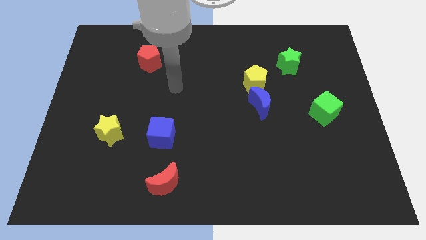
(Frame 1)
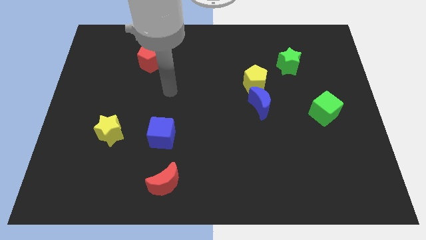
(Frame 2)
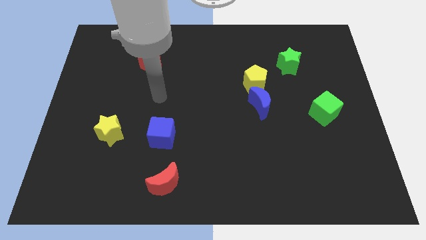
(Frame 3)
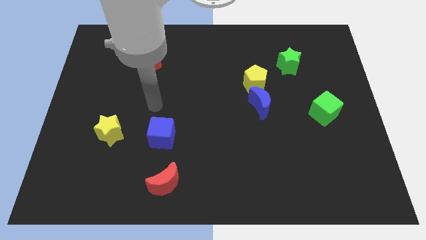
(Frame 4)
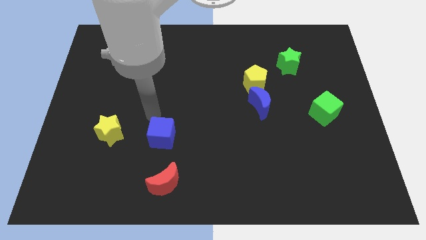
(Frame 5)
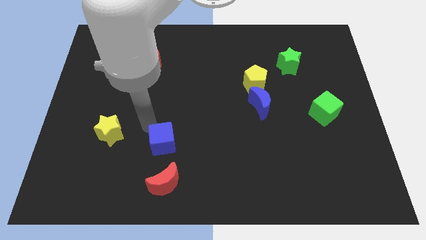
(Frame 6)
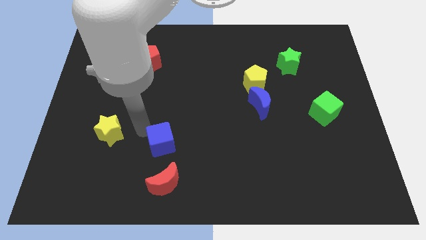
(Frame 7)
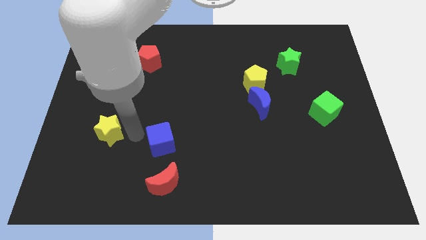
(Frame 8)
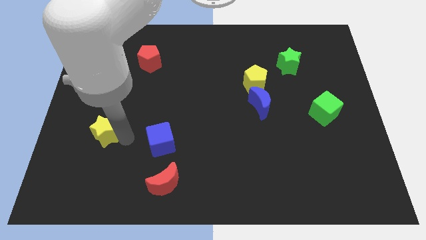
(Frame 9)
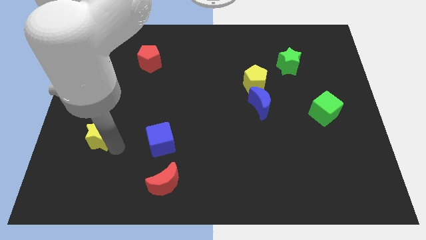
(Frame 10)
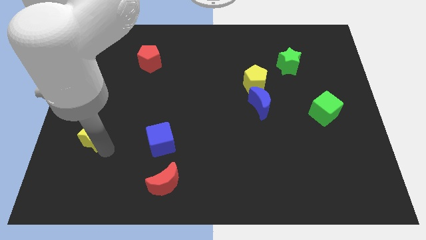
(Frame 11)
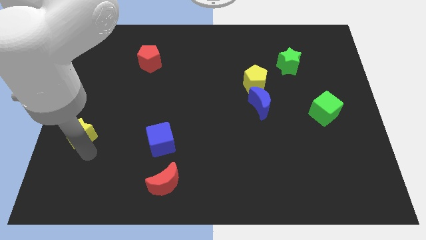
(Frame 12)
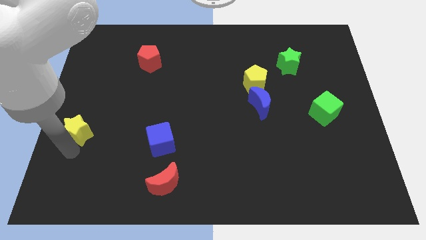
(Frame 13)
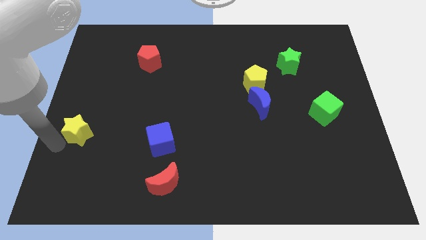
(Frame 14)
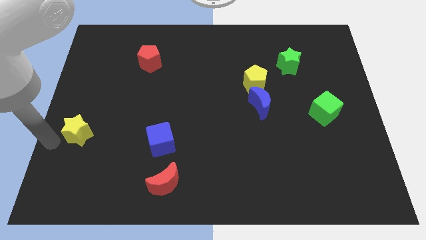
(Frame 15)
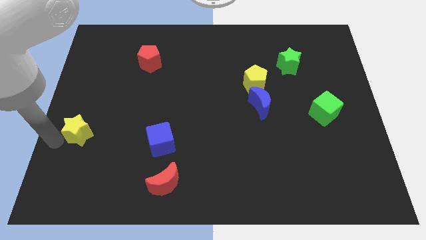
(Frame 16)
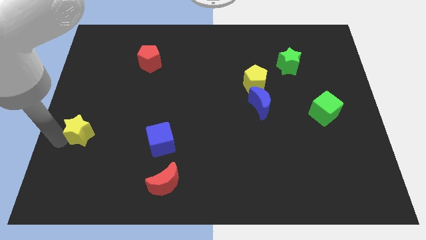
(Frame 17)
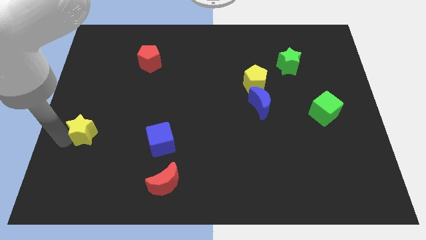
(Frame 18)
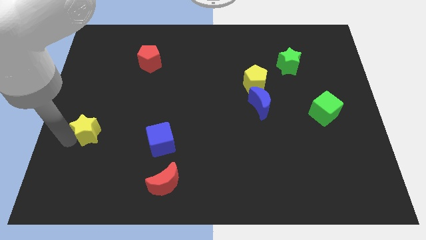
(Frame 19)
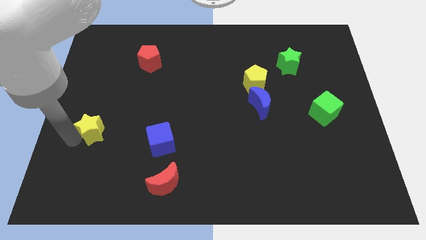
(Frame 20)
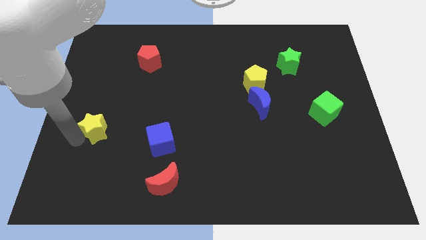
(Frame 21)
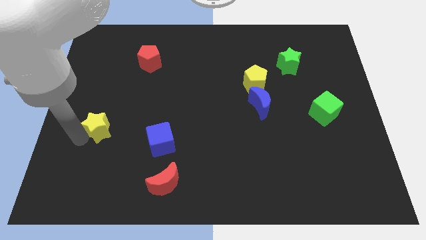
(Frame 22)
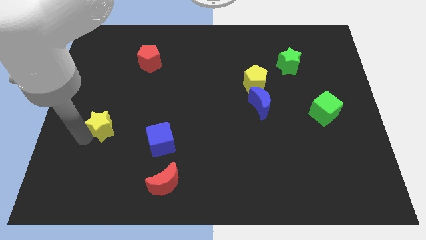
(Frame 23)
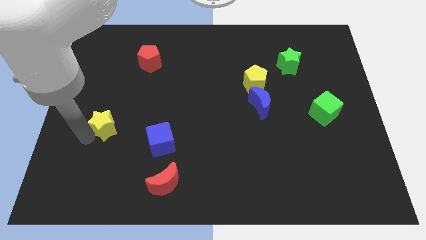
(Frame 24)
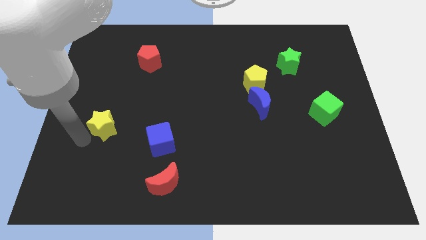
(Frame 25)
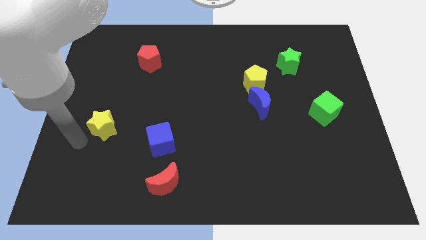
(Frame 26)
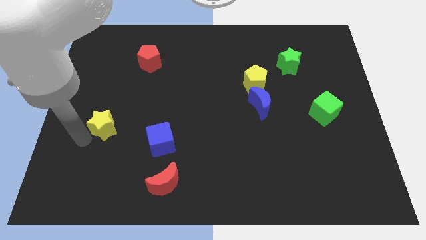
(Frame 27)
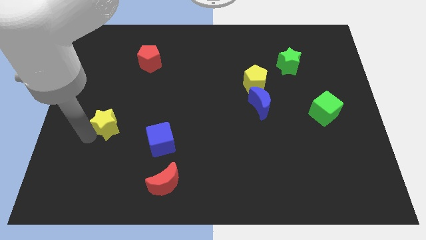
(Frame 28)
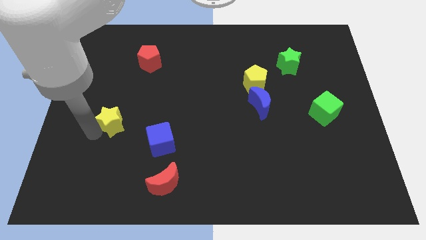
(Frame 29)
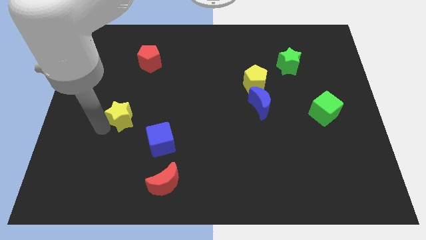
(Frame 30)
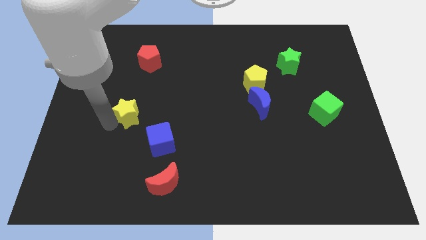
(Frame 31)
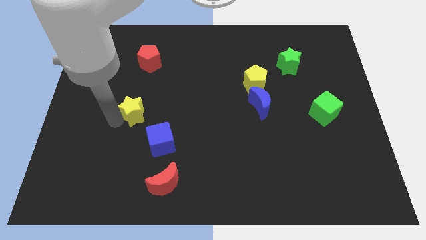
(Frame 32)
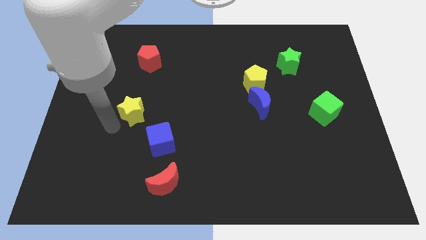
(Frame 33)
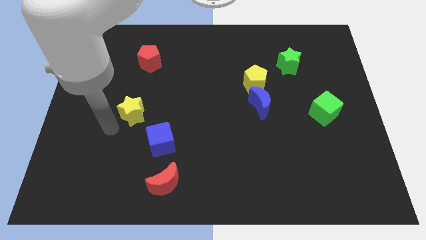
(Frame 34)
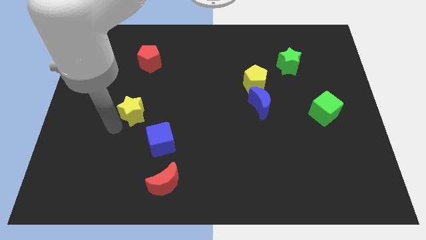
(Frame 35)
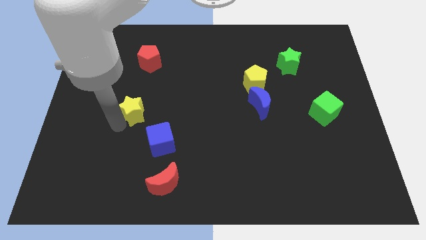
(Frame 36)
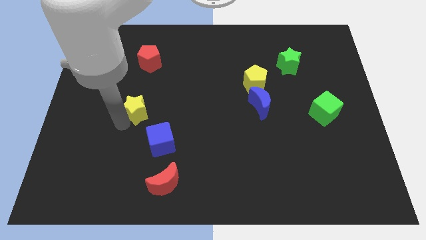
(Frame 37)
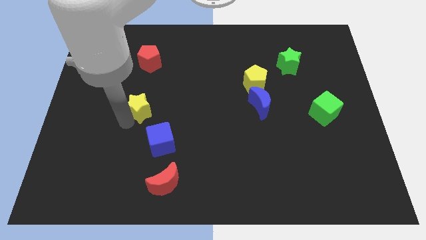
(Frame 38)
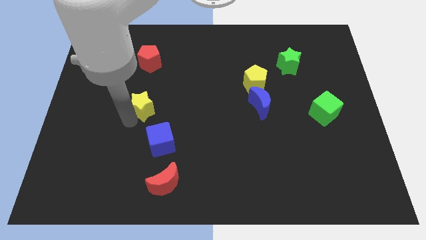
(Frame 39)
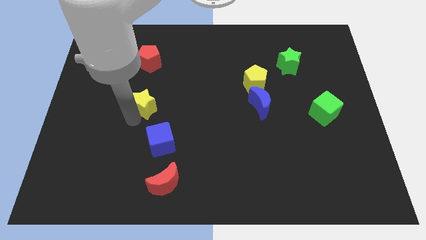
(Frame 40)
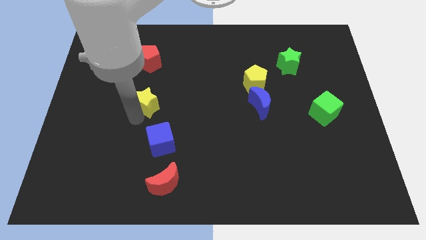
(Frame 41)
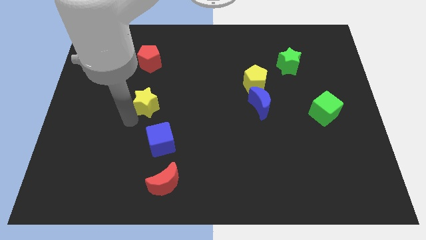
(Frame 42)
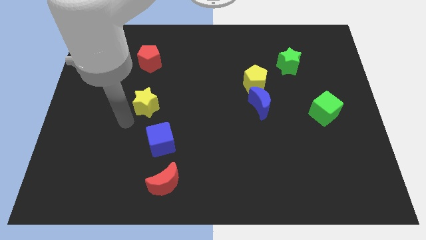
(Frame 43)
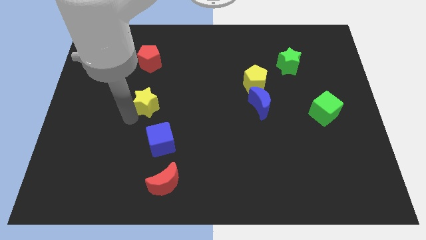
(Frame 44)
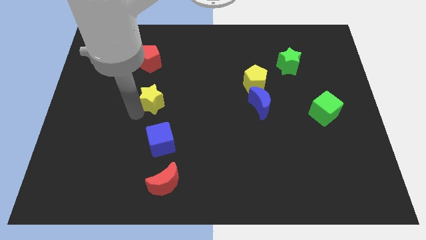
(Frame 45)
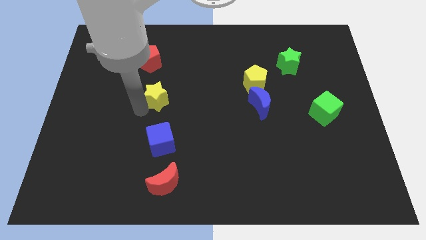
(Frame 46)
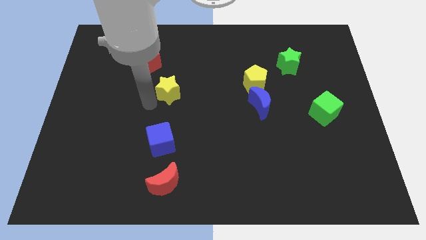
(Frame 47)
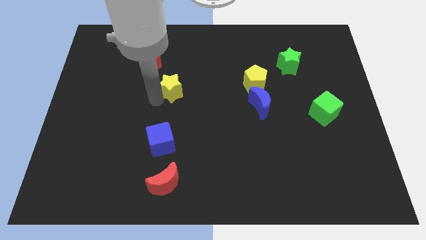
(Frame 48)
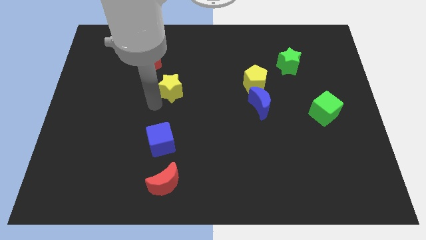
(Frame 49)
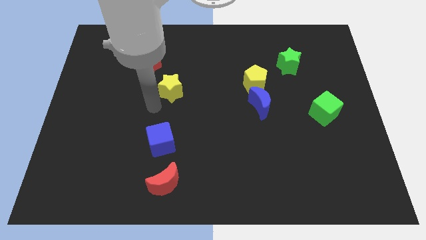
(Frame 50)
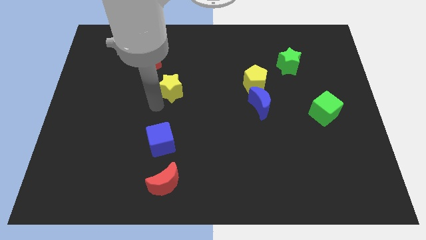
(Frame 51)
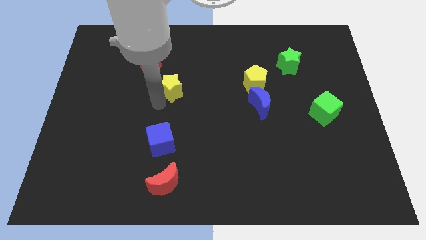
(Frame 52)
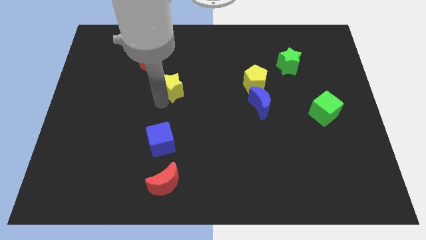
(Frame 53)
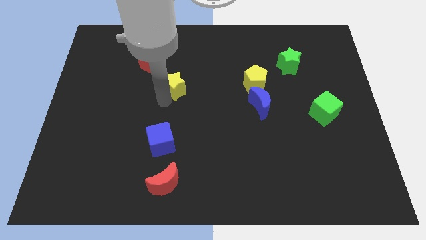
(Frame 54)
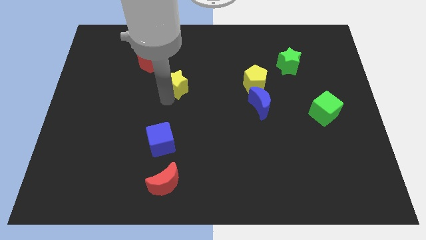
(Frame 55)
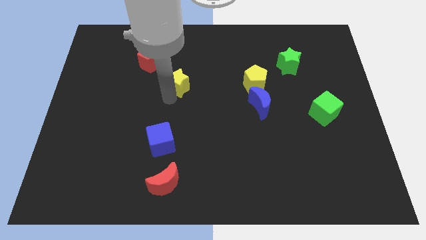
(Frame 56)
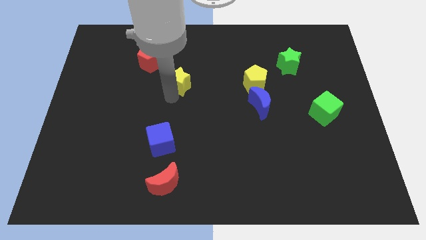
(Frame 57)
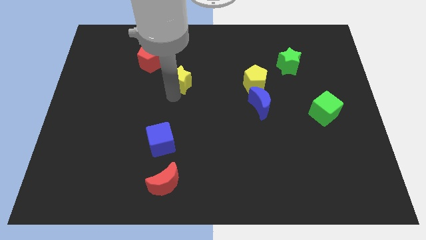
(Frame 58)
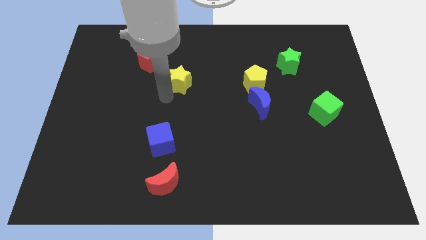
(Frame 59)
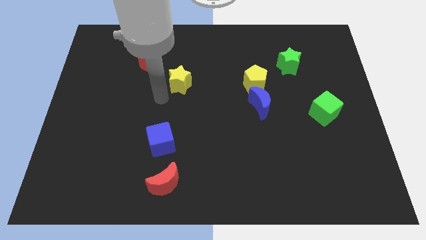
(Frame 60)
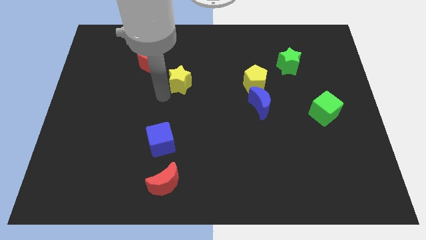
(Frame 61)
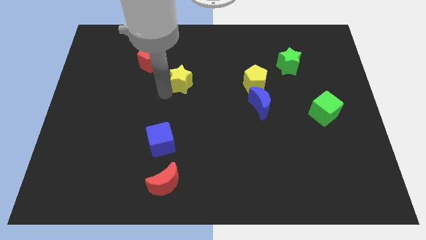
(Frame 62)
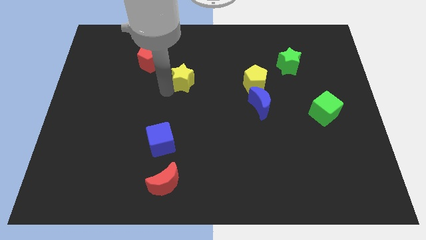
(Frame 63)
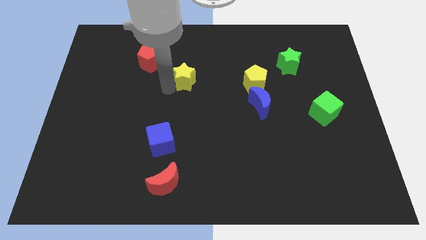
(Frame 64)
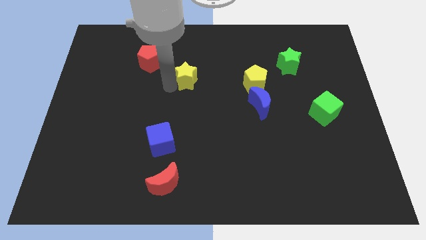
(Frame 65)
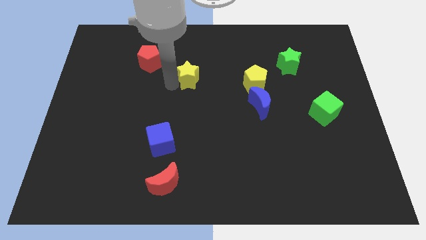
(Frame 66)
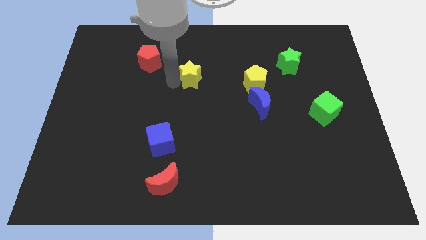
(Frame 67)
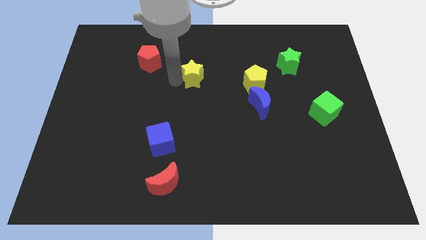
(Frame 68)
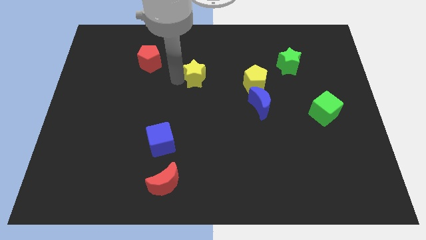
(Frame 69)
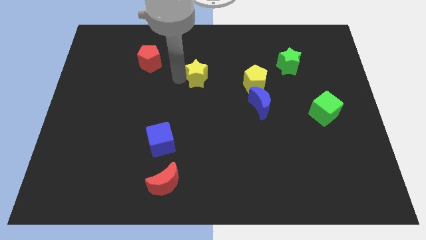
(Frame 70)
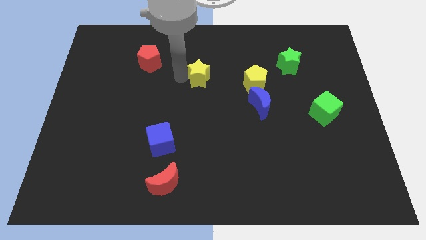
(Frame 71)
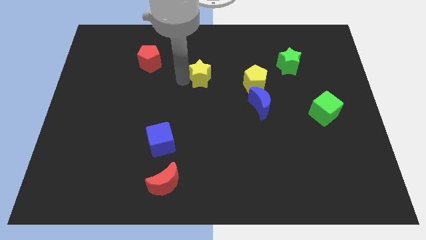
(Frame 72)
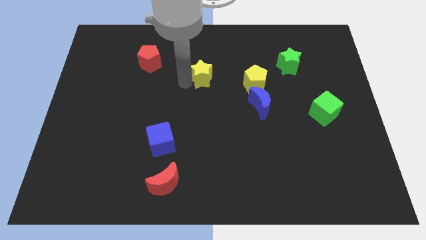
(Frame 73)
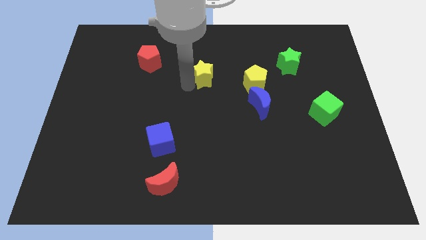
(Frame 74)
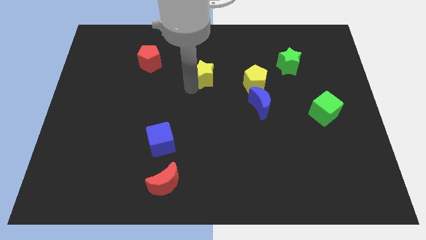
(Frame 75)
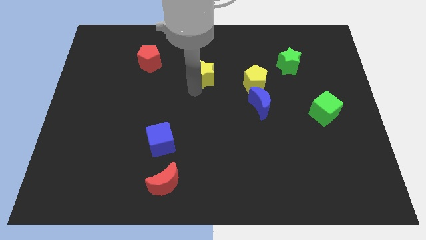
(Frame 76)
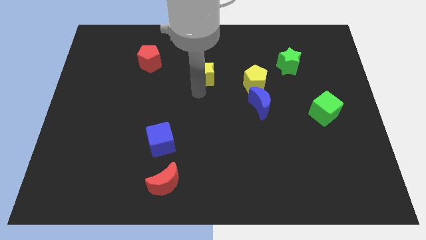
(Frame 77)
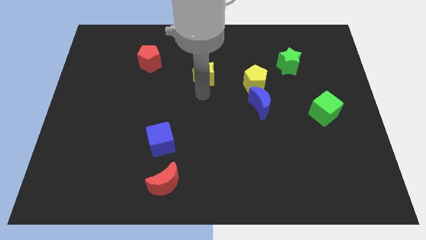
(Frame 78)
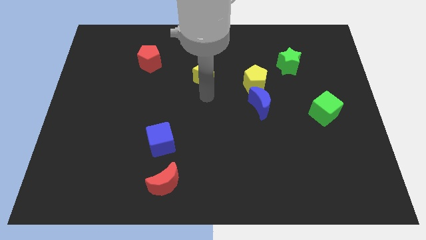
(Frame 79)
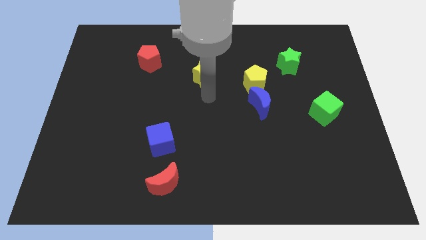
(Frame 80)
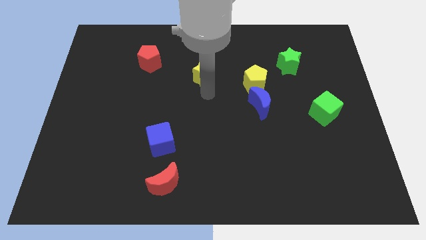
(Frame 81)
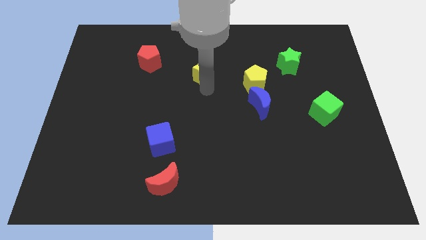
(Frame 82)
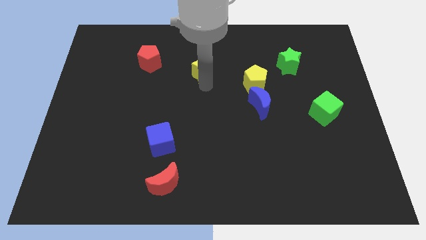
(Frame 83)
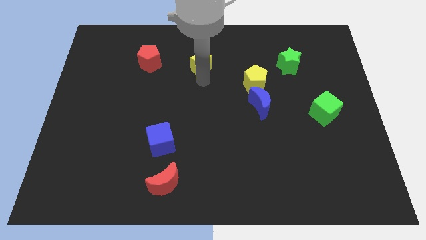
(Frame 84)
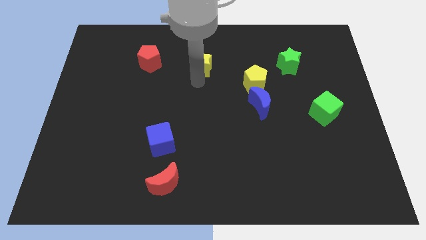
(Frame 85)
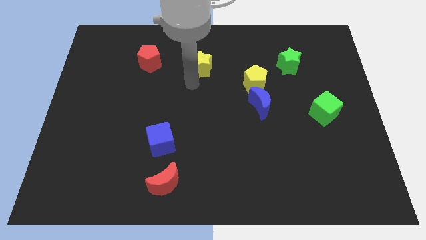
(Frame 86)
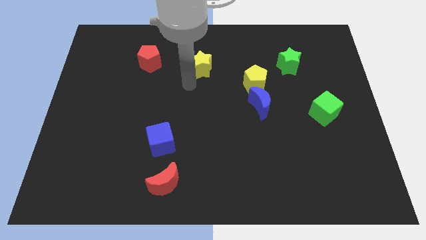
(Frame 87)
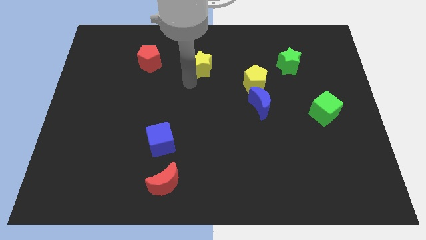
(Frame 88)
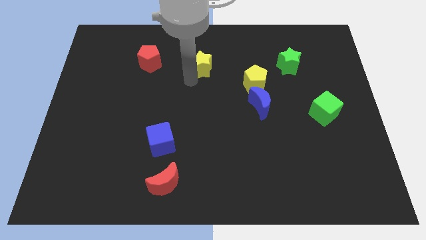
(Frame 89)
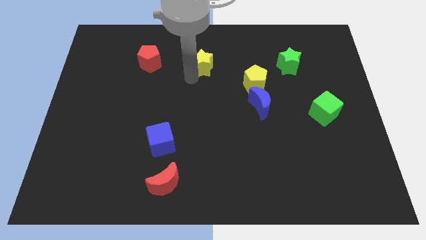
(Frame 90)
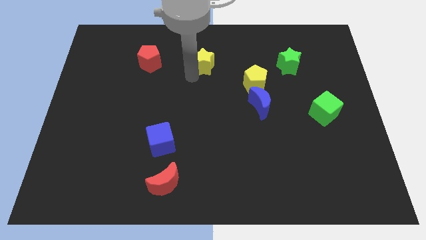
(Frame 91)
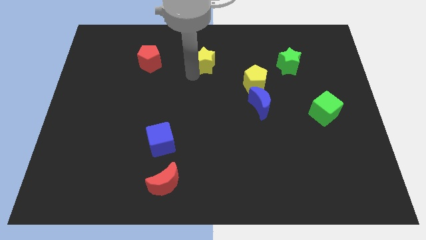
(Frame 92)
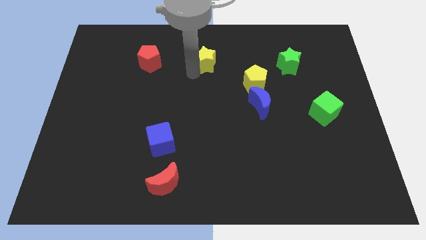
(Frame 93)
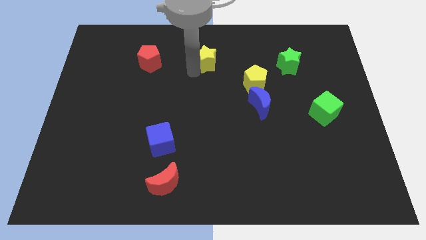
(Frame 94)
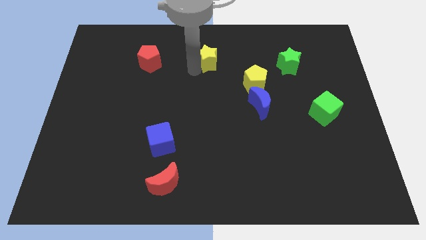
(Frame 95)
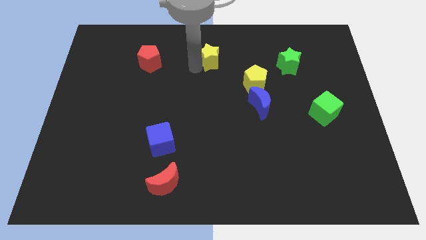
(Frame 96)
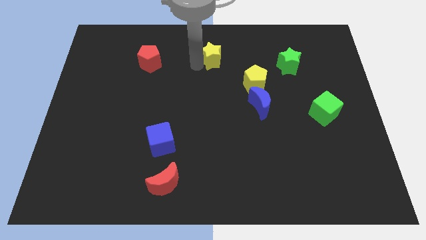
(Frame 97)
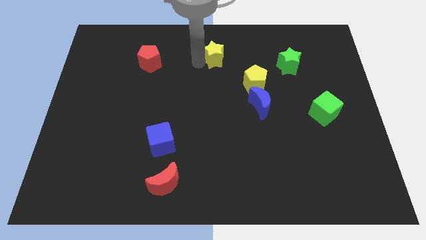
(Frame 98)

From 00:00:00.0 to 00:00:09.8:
push the yellow star to the top side
